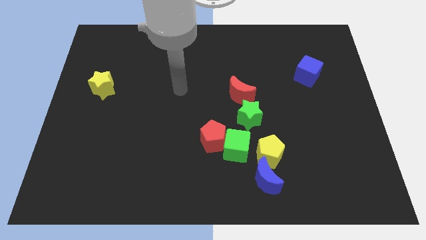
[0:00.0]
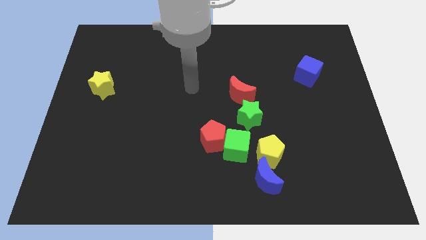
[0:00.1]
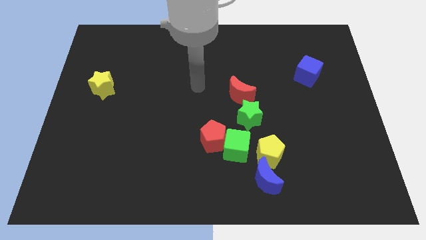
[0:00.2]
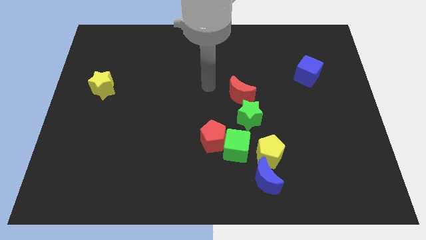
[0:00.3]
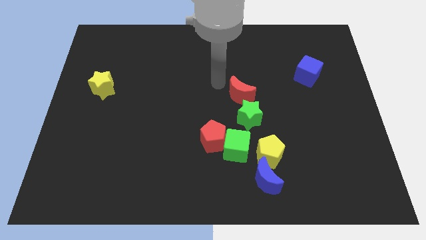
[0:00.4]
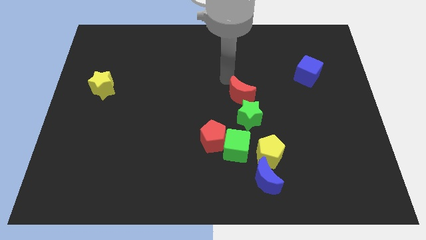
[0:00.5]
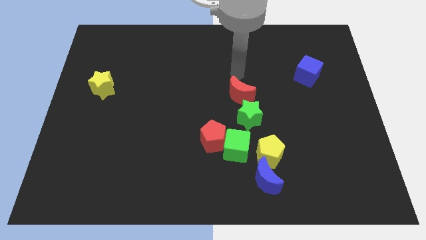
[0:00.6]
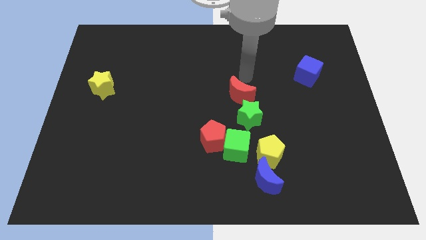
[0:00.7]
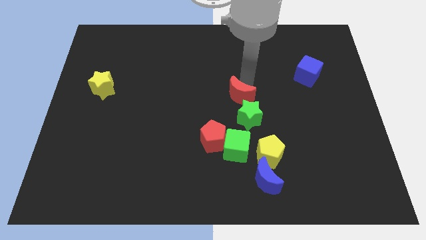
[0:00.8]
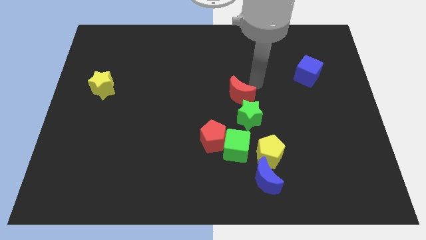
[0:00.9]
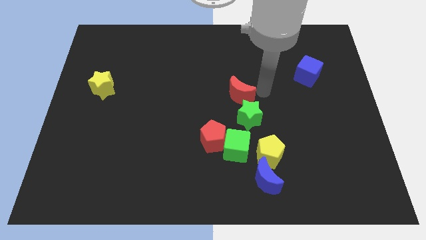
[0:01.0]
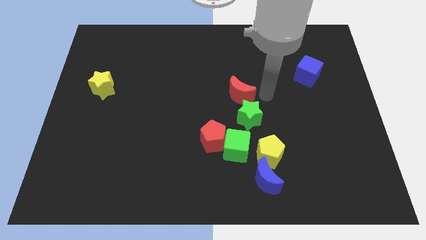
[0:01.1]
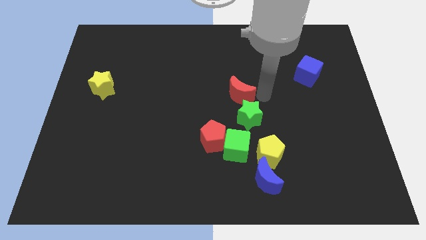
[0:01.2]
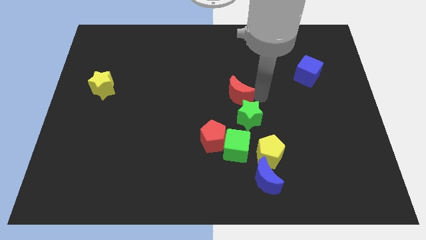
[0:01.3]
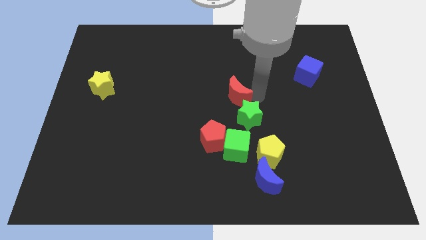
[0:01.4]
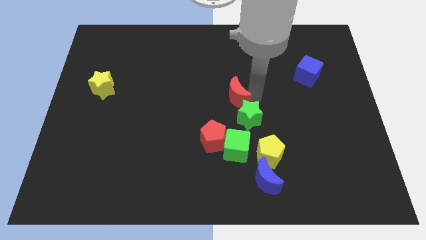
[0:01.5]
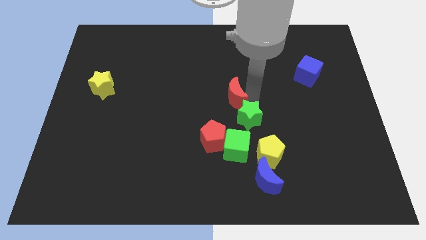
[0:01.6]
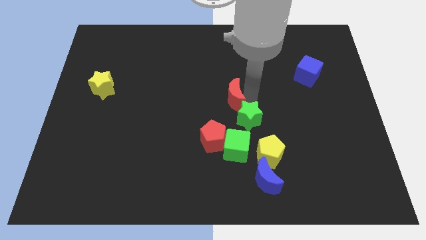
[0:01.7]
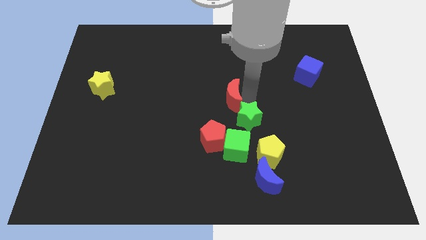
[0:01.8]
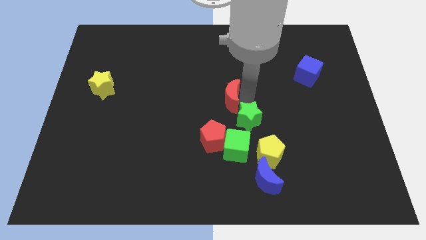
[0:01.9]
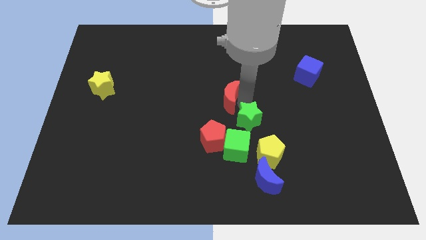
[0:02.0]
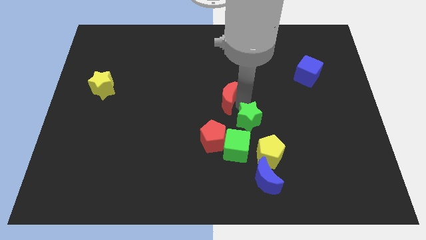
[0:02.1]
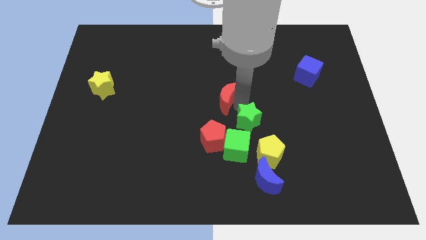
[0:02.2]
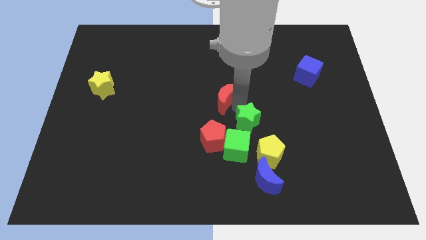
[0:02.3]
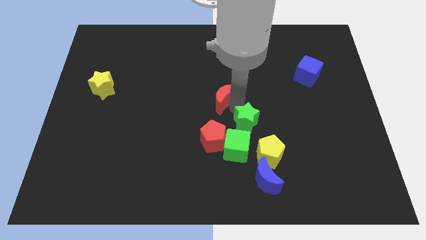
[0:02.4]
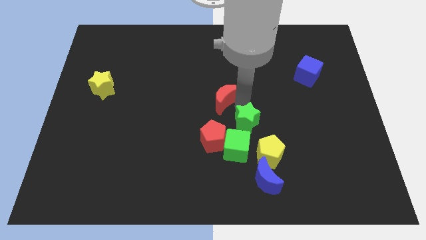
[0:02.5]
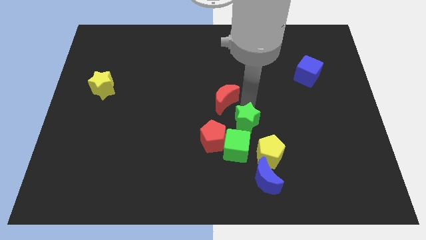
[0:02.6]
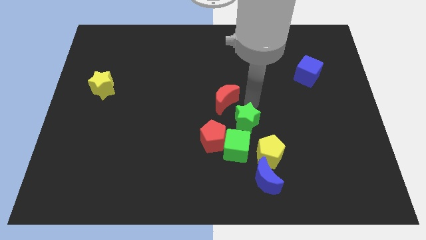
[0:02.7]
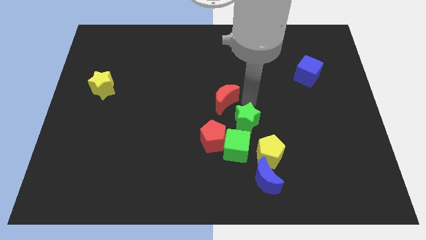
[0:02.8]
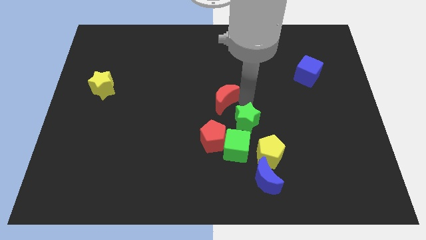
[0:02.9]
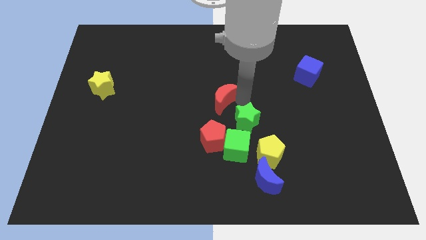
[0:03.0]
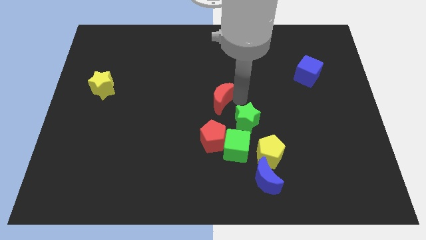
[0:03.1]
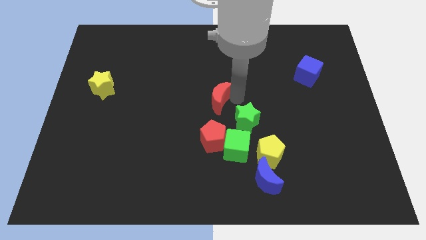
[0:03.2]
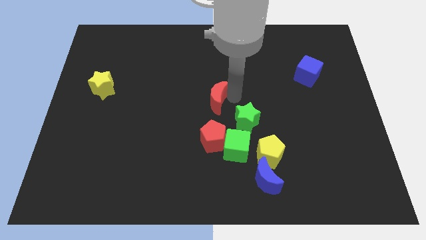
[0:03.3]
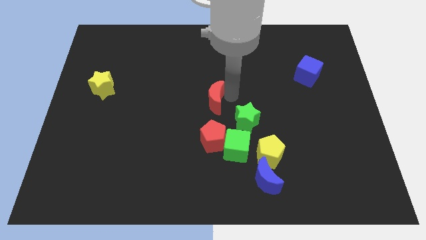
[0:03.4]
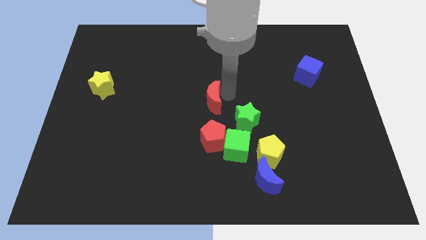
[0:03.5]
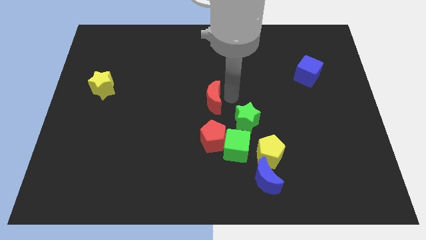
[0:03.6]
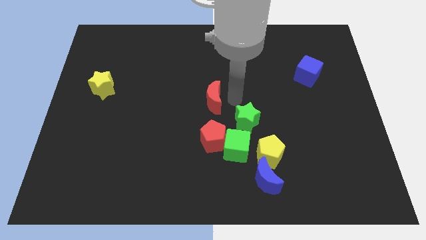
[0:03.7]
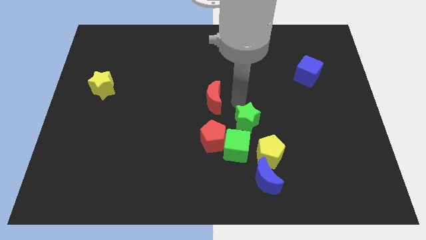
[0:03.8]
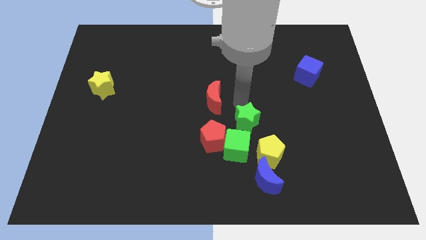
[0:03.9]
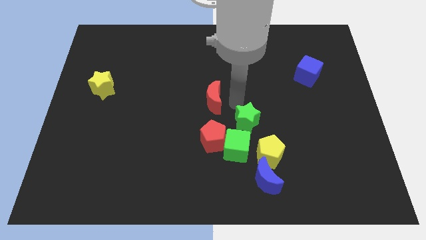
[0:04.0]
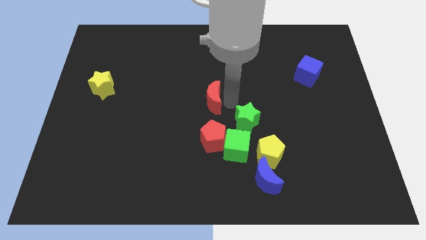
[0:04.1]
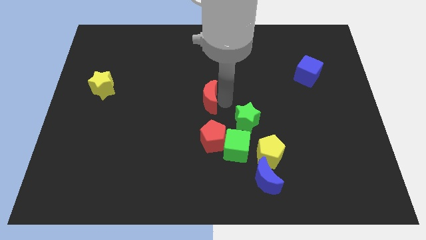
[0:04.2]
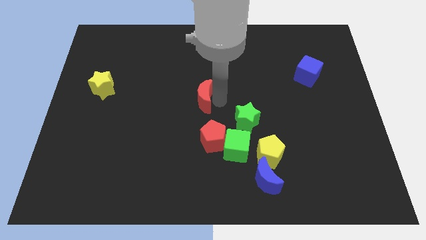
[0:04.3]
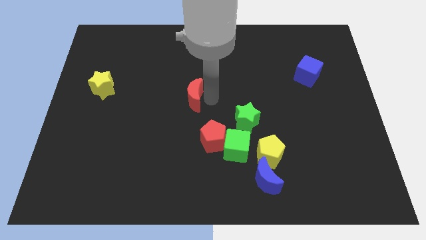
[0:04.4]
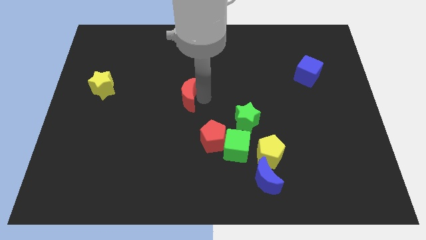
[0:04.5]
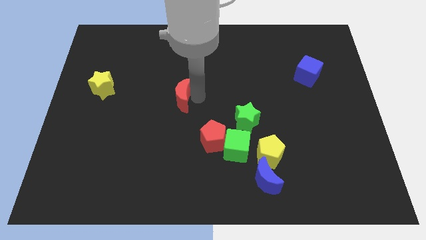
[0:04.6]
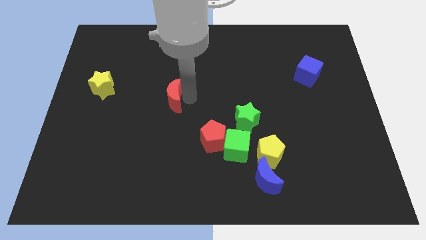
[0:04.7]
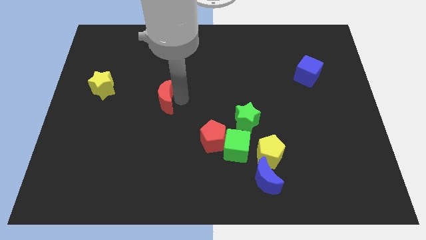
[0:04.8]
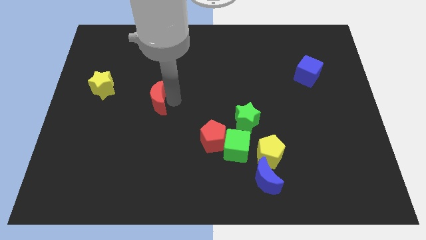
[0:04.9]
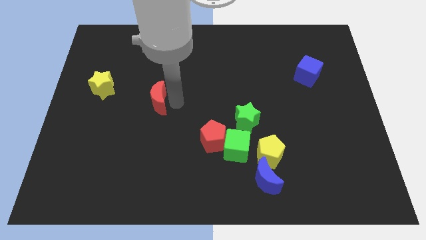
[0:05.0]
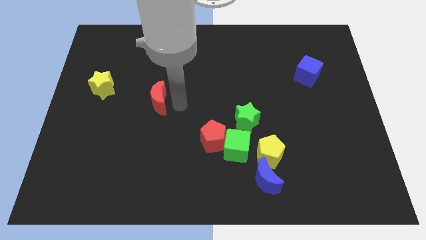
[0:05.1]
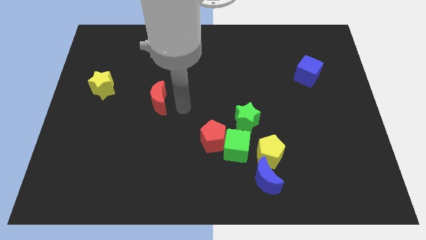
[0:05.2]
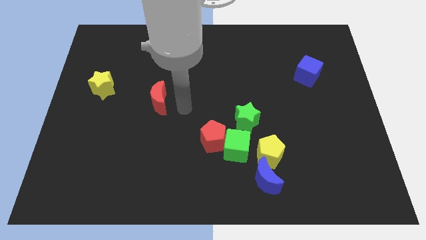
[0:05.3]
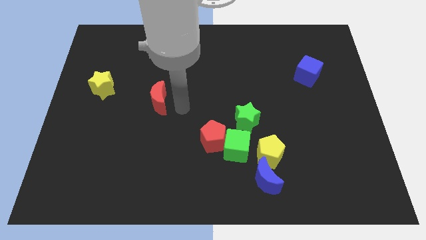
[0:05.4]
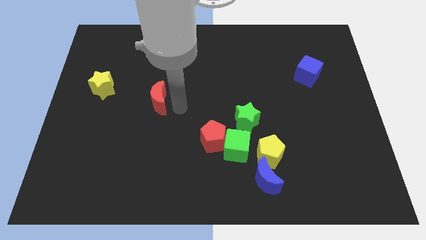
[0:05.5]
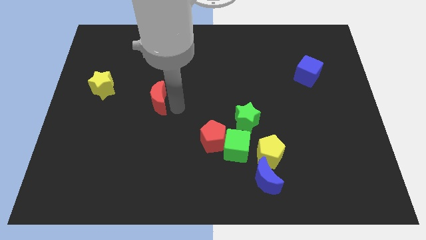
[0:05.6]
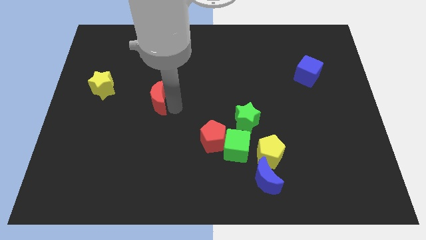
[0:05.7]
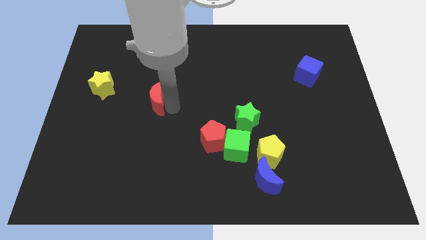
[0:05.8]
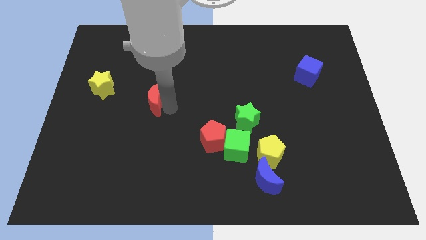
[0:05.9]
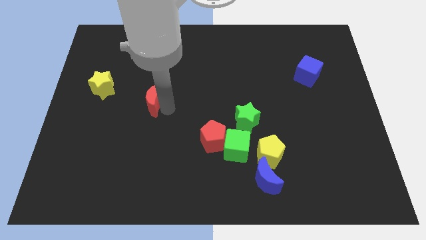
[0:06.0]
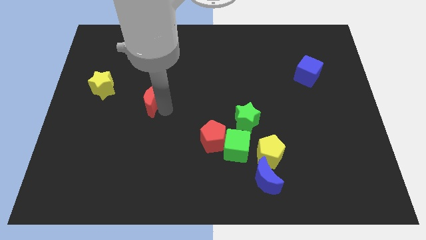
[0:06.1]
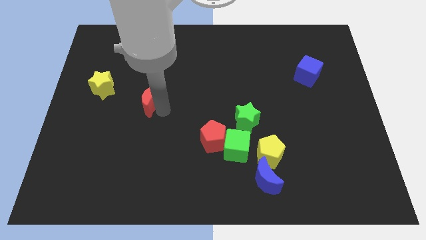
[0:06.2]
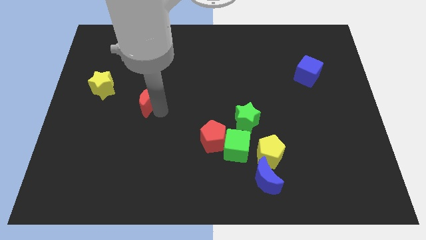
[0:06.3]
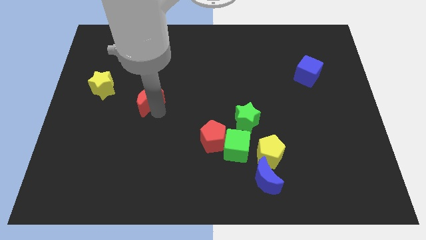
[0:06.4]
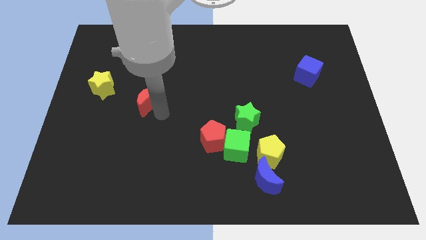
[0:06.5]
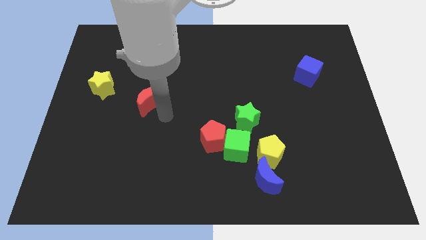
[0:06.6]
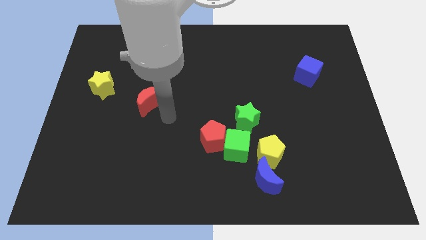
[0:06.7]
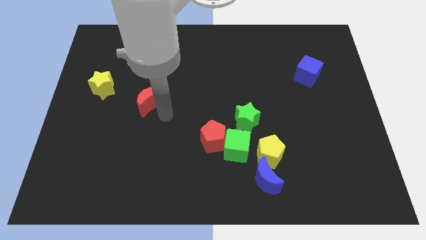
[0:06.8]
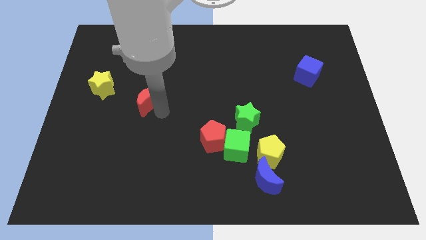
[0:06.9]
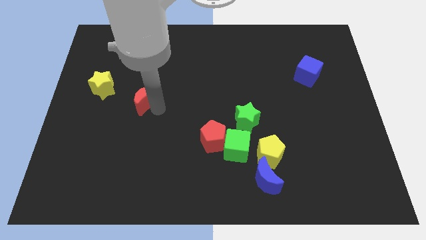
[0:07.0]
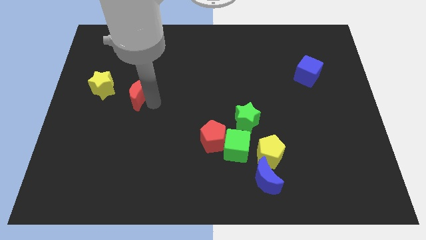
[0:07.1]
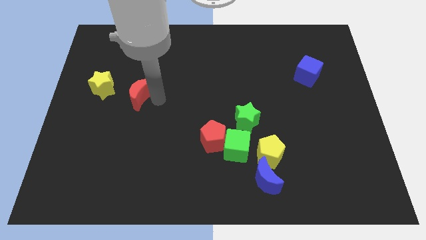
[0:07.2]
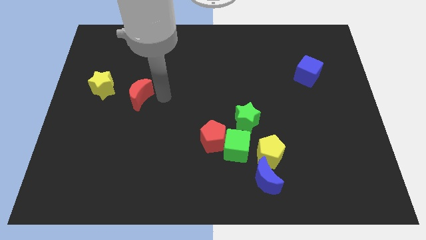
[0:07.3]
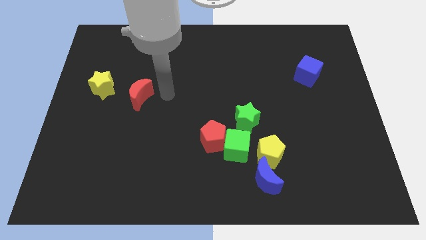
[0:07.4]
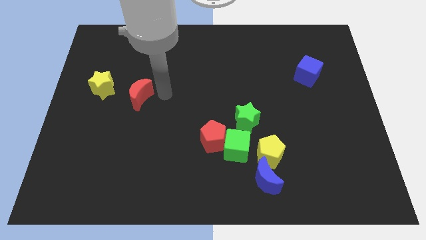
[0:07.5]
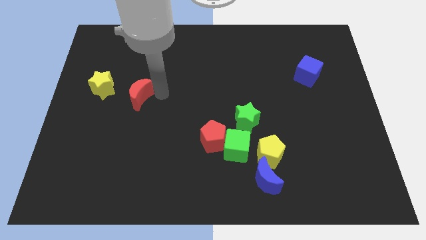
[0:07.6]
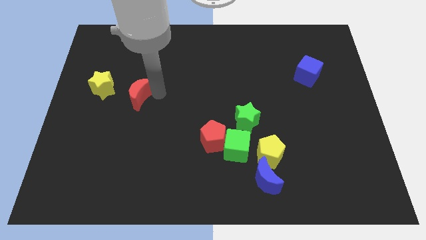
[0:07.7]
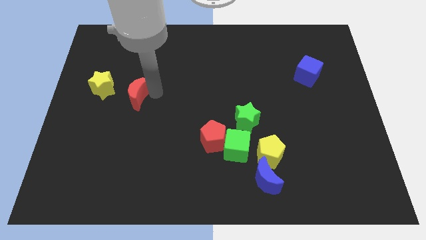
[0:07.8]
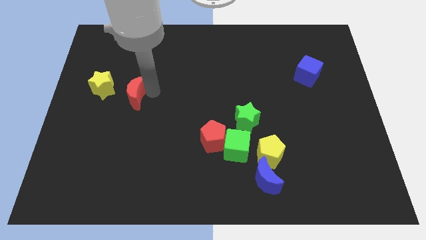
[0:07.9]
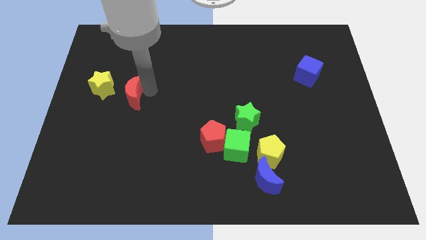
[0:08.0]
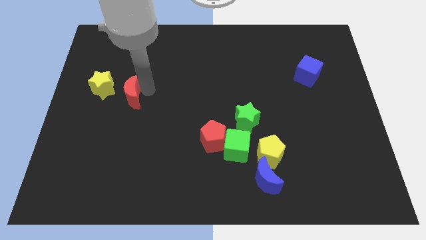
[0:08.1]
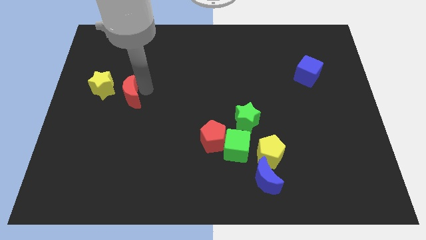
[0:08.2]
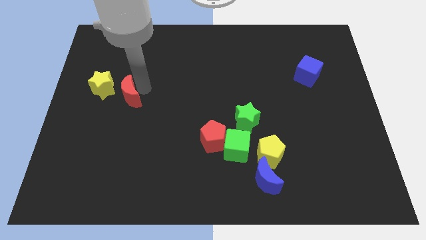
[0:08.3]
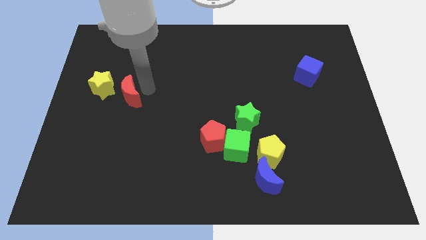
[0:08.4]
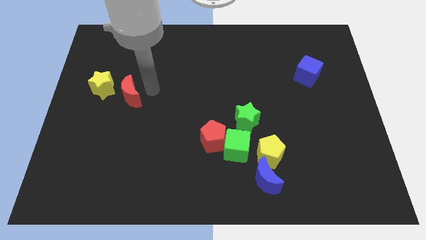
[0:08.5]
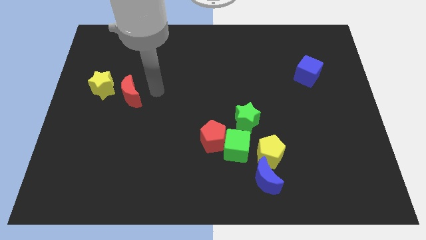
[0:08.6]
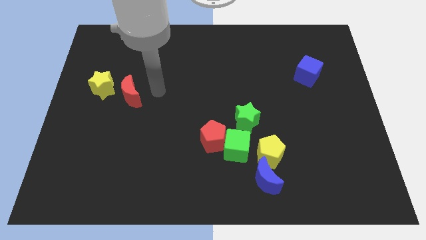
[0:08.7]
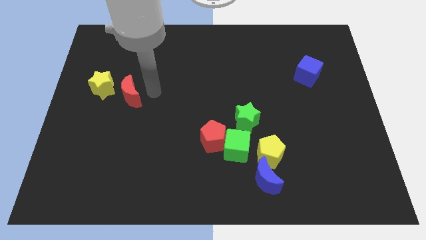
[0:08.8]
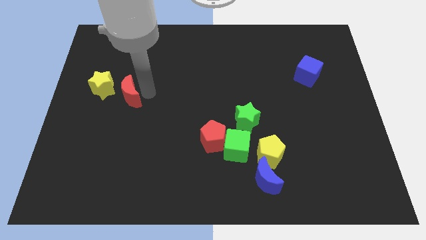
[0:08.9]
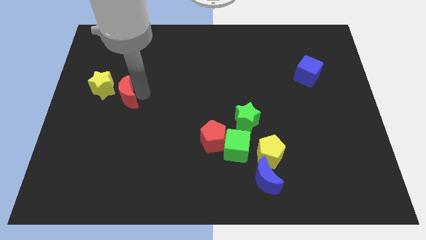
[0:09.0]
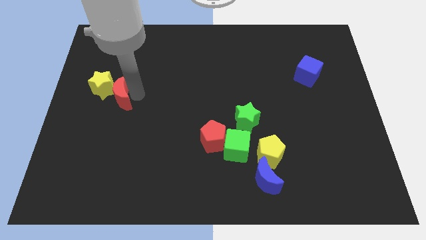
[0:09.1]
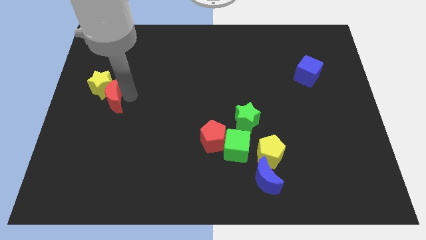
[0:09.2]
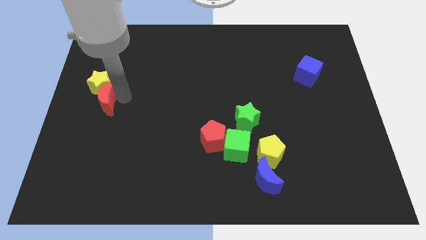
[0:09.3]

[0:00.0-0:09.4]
move the red moon to the left side of the board
